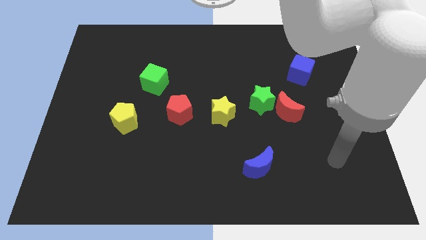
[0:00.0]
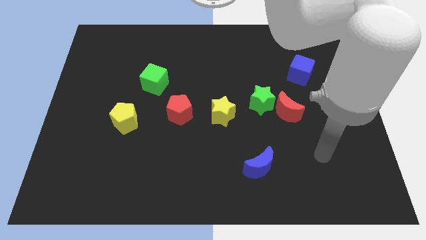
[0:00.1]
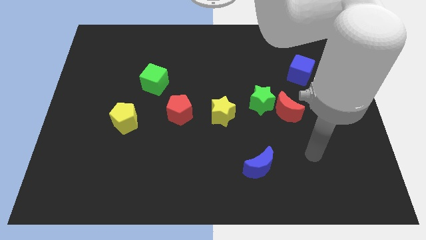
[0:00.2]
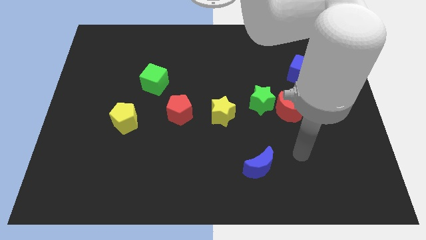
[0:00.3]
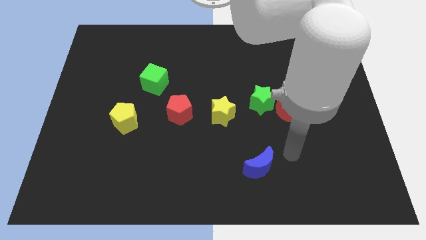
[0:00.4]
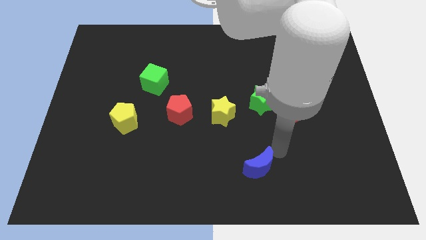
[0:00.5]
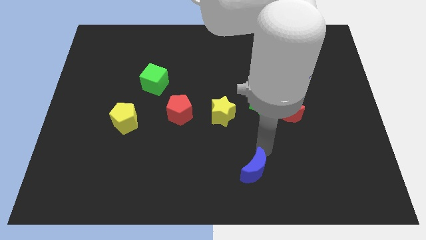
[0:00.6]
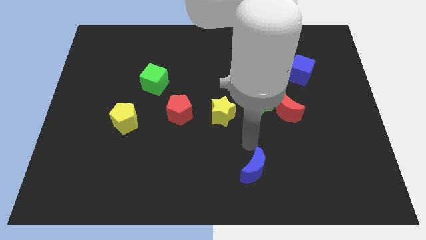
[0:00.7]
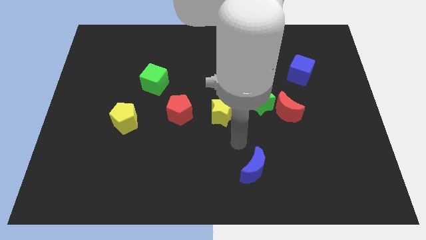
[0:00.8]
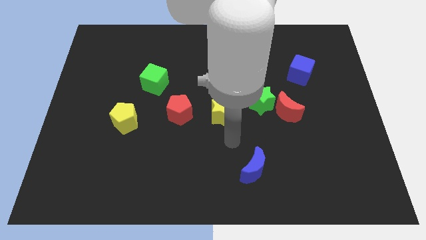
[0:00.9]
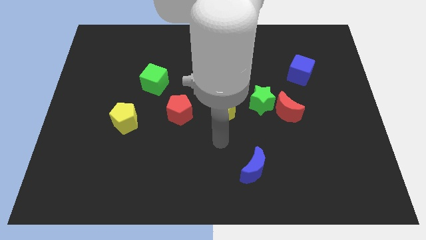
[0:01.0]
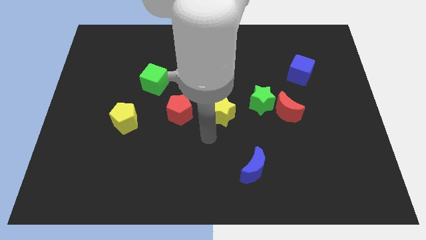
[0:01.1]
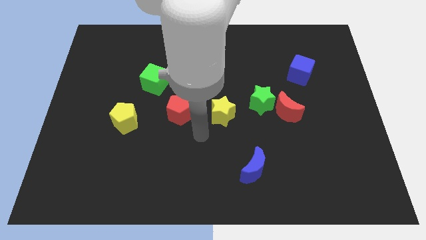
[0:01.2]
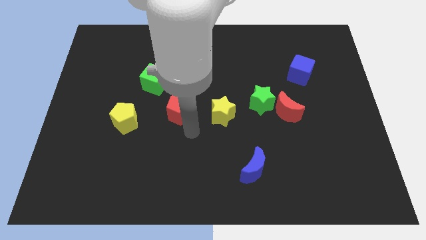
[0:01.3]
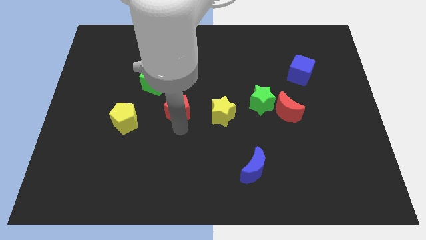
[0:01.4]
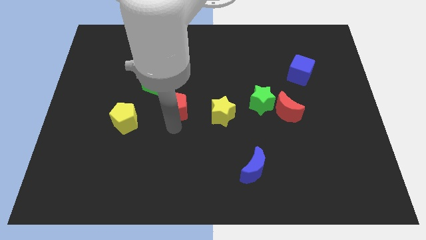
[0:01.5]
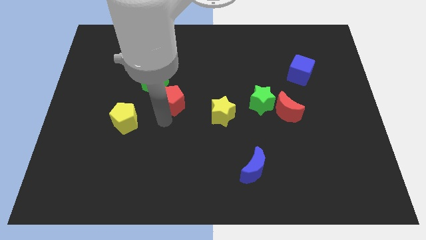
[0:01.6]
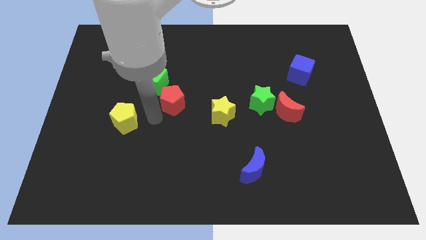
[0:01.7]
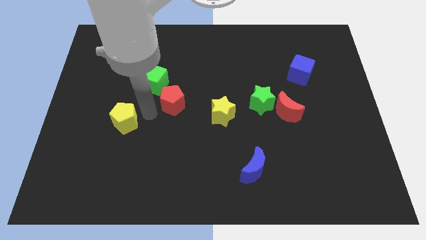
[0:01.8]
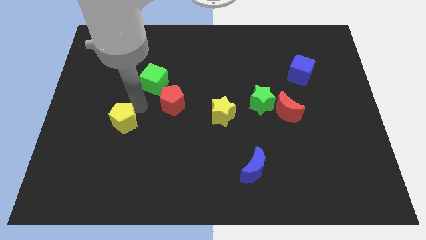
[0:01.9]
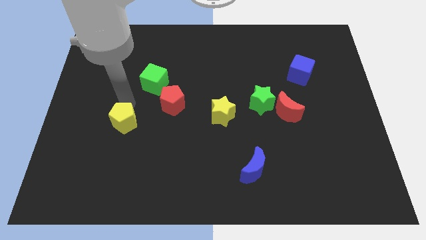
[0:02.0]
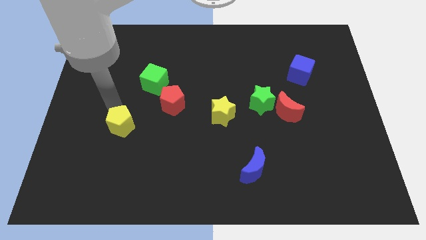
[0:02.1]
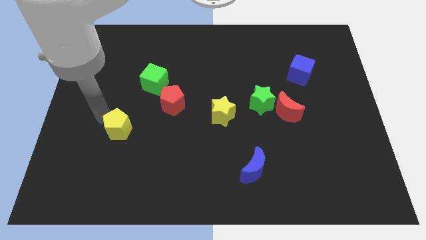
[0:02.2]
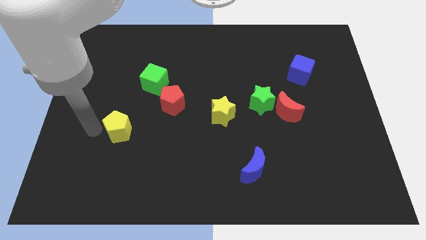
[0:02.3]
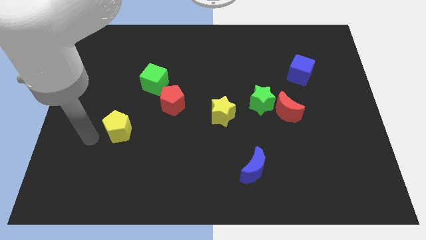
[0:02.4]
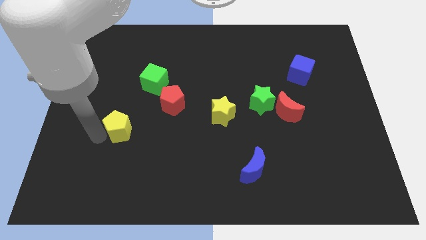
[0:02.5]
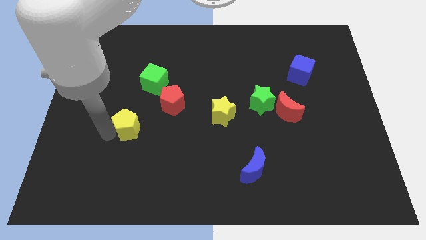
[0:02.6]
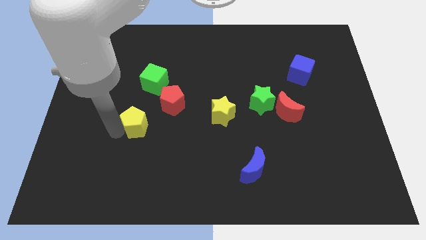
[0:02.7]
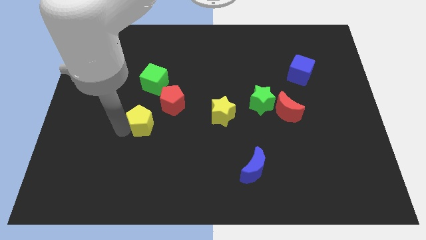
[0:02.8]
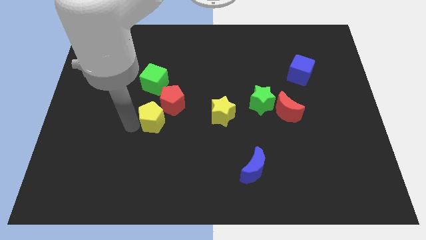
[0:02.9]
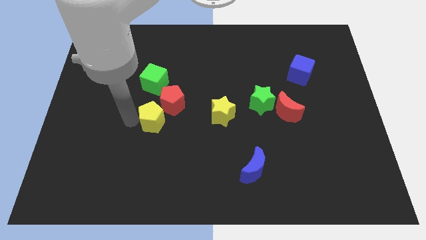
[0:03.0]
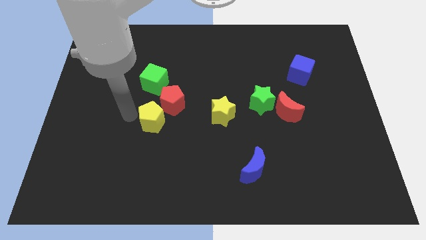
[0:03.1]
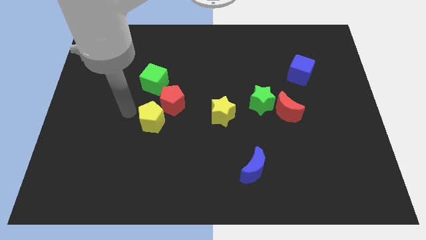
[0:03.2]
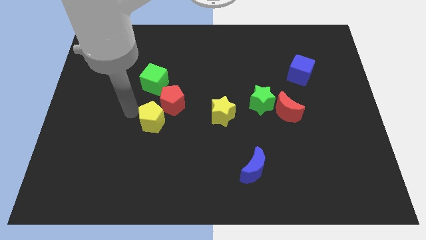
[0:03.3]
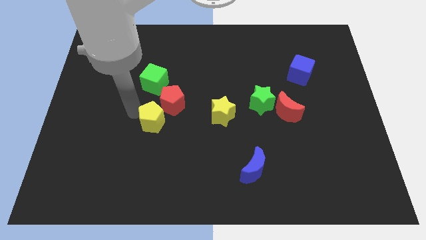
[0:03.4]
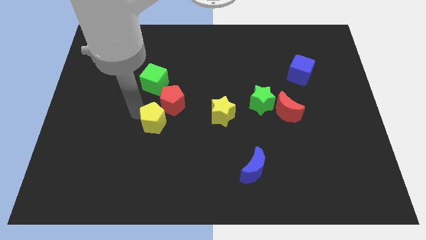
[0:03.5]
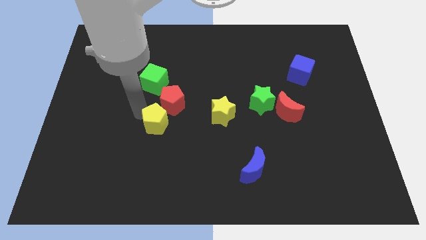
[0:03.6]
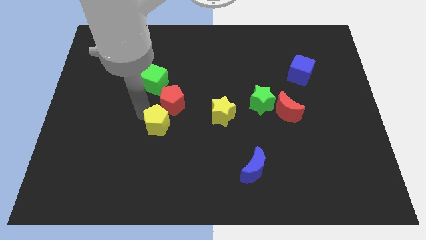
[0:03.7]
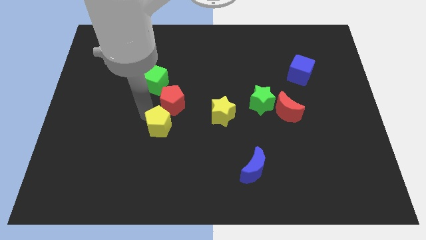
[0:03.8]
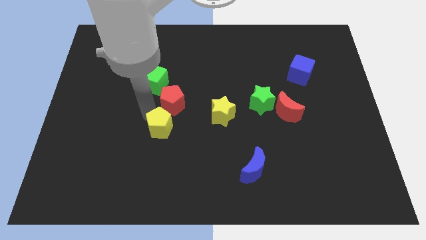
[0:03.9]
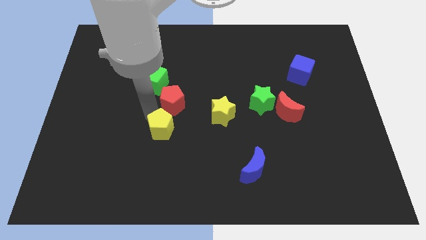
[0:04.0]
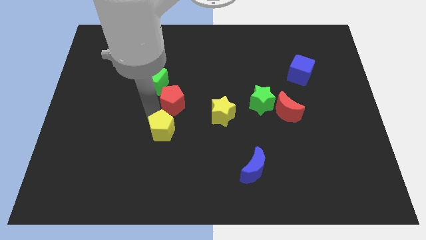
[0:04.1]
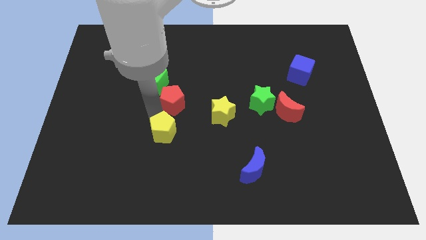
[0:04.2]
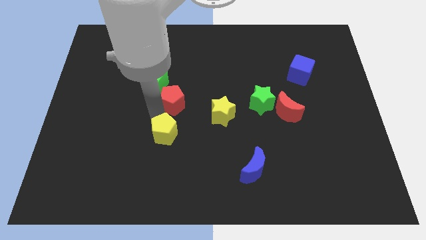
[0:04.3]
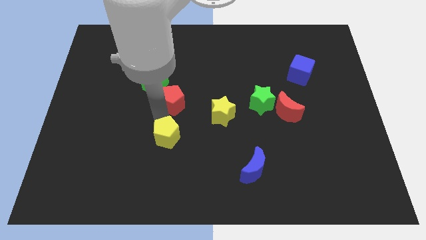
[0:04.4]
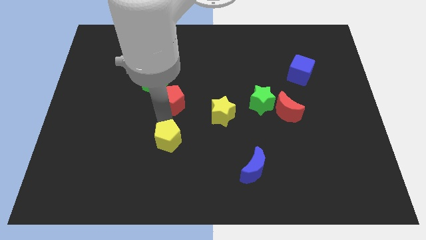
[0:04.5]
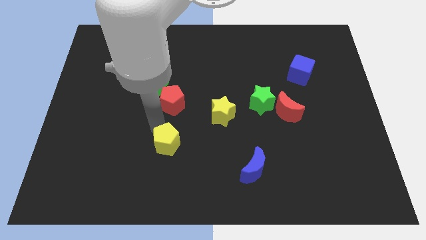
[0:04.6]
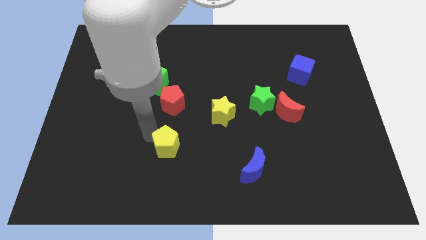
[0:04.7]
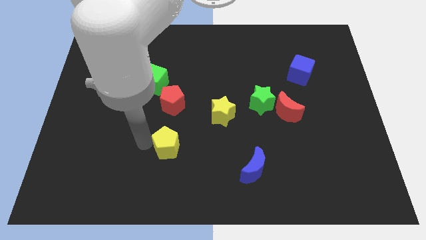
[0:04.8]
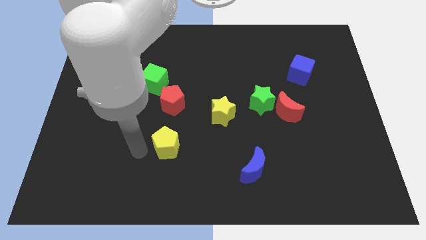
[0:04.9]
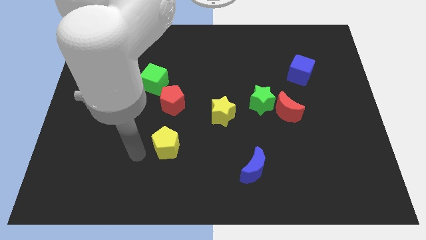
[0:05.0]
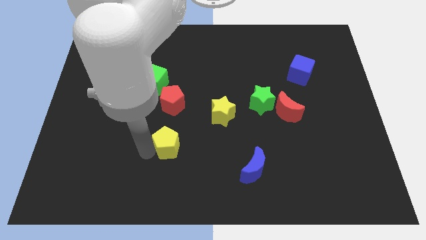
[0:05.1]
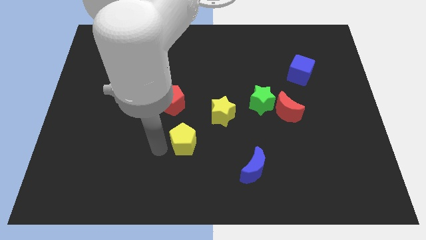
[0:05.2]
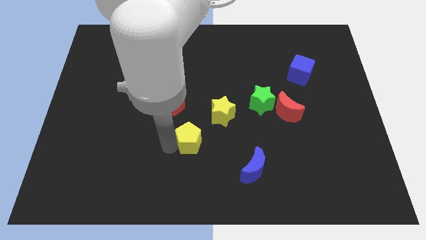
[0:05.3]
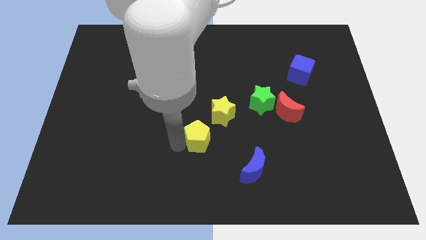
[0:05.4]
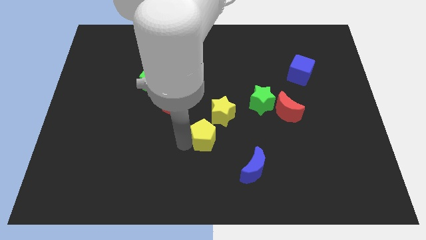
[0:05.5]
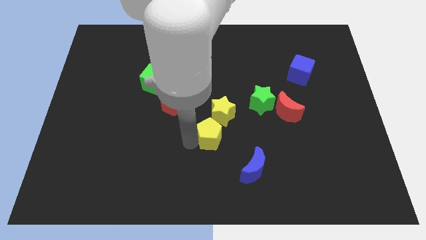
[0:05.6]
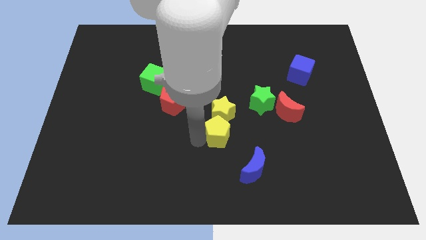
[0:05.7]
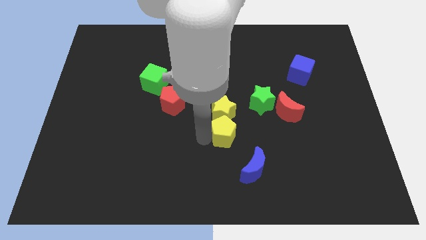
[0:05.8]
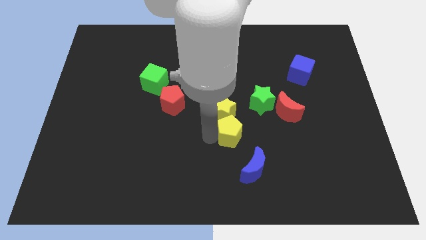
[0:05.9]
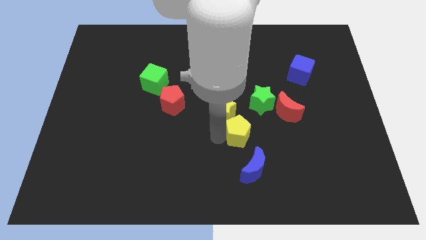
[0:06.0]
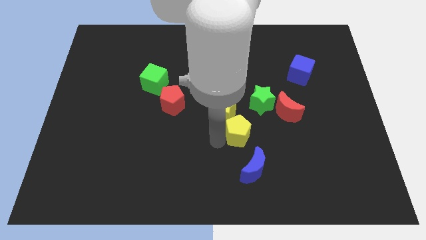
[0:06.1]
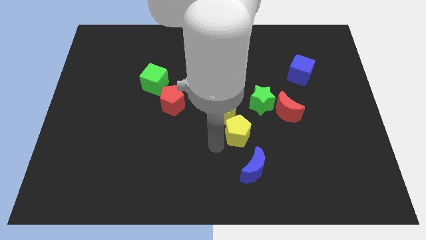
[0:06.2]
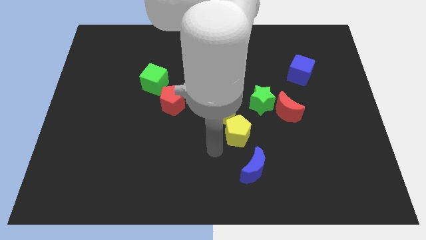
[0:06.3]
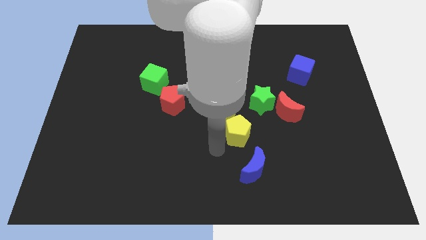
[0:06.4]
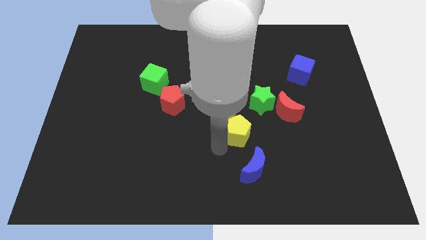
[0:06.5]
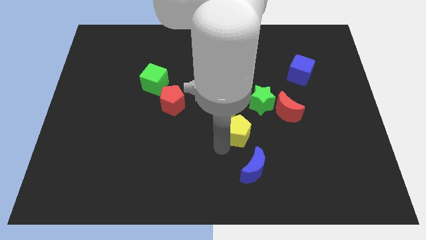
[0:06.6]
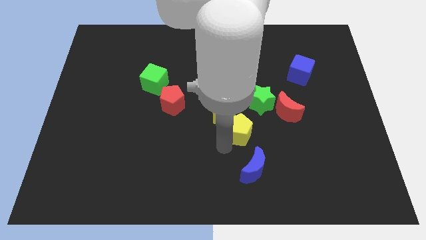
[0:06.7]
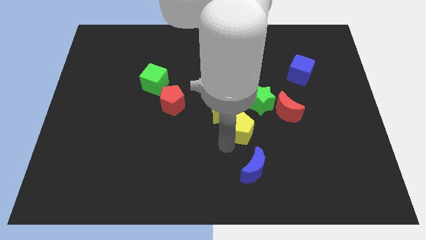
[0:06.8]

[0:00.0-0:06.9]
push the yellow pentagon right of the yellow star
